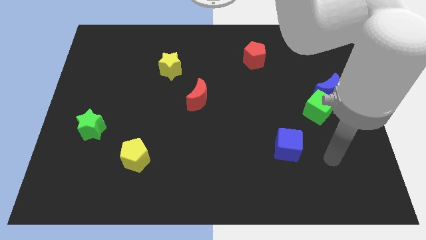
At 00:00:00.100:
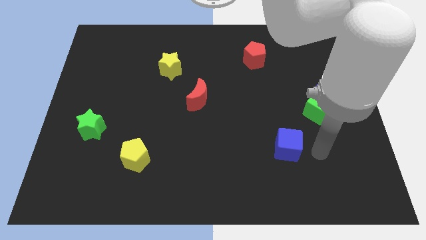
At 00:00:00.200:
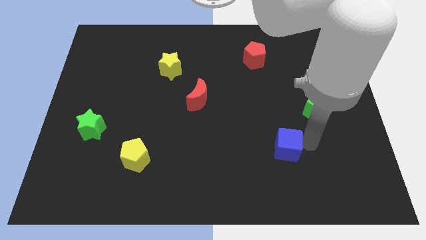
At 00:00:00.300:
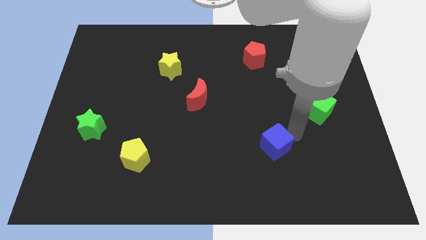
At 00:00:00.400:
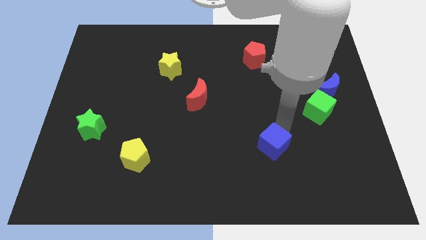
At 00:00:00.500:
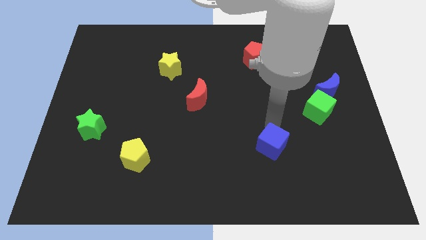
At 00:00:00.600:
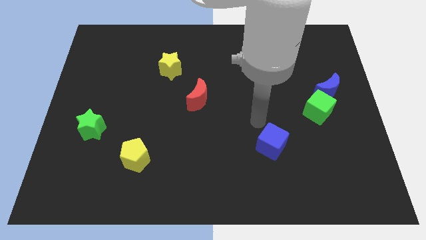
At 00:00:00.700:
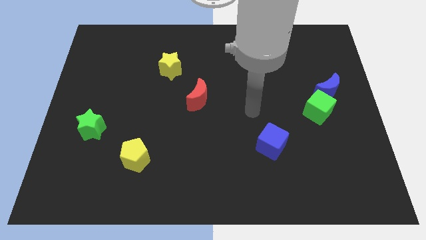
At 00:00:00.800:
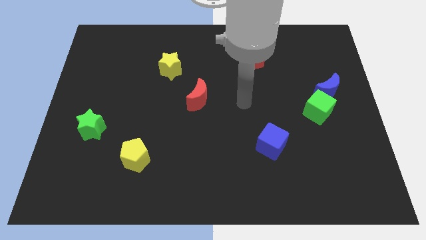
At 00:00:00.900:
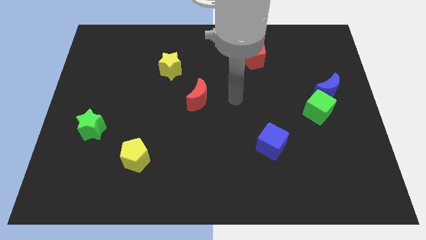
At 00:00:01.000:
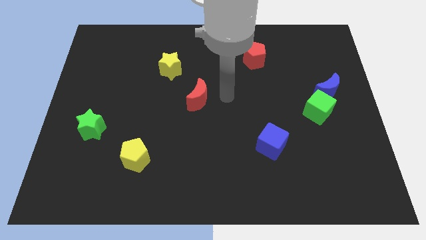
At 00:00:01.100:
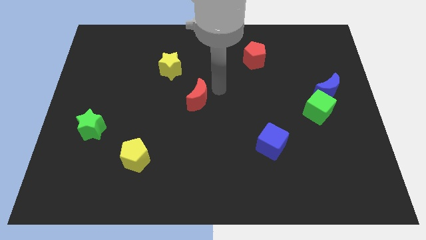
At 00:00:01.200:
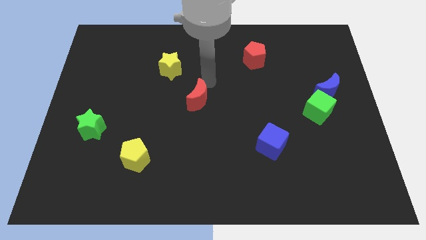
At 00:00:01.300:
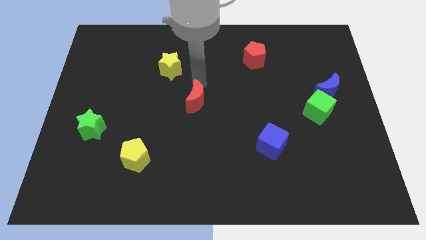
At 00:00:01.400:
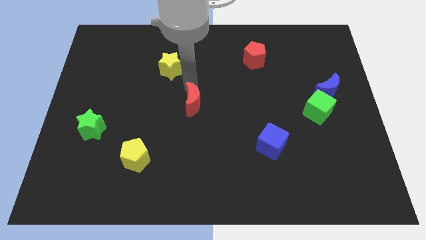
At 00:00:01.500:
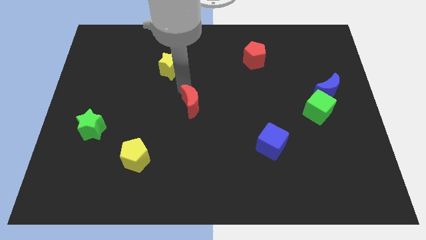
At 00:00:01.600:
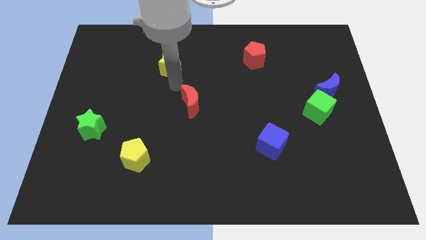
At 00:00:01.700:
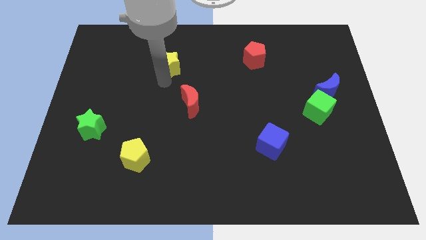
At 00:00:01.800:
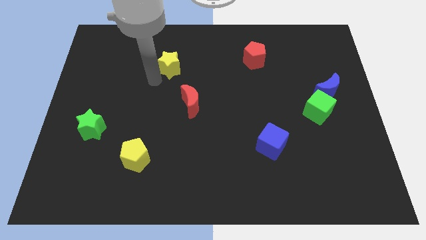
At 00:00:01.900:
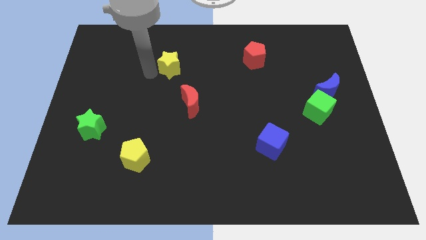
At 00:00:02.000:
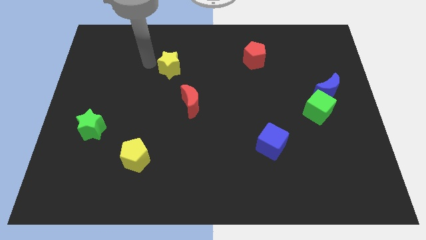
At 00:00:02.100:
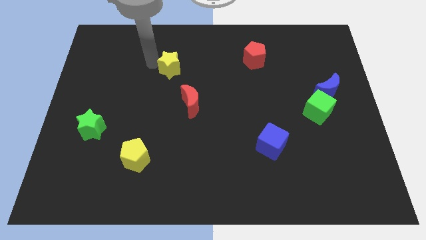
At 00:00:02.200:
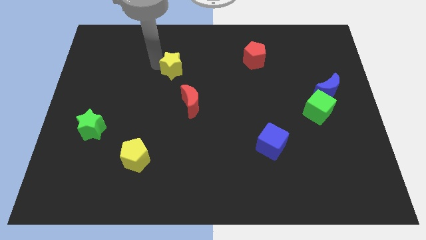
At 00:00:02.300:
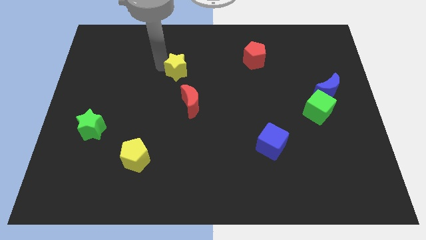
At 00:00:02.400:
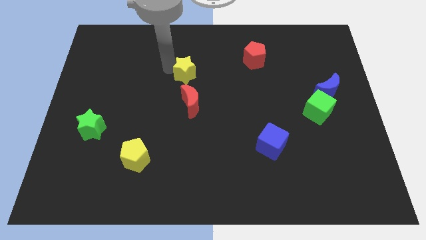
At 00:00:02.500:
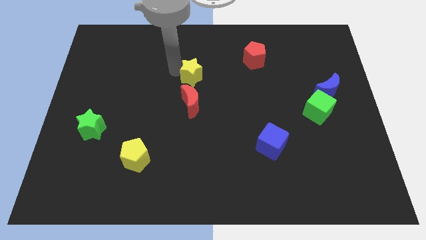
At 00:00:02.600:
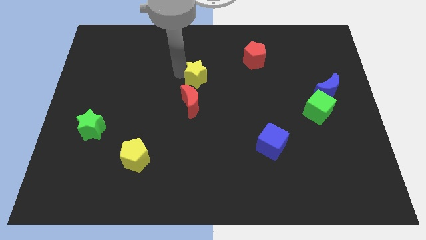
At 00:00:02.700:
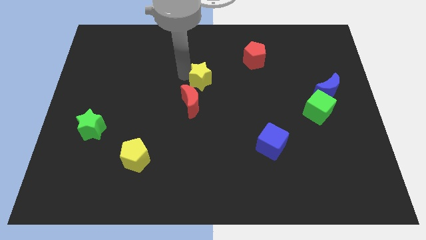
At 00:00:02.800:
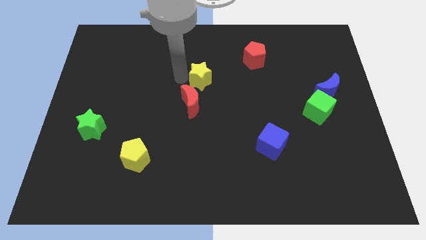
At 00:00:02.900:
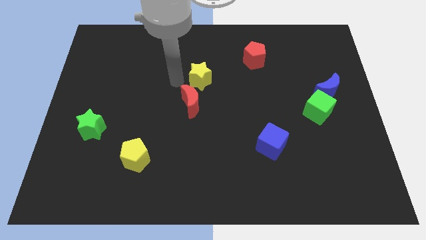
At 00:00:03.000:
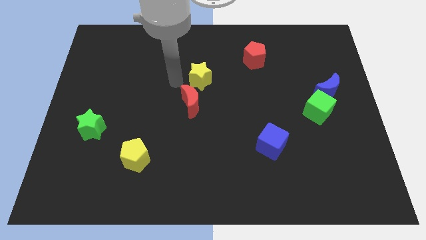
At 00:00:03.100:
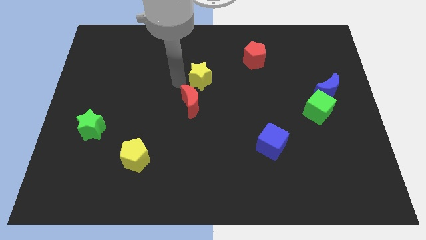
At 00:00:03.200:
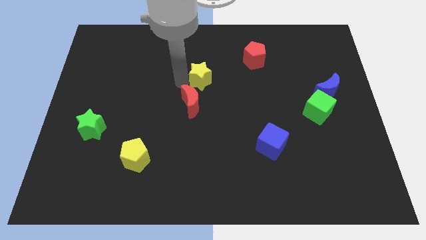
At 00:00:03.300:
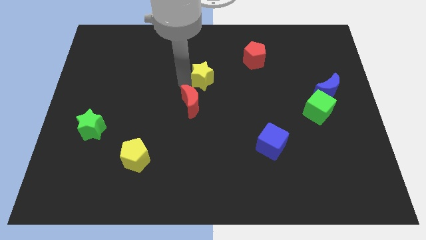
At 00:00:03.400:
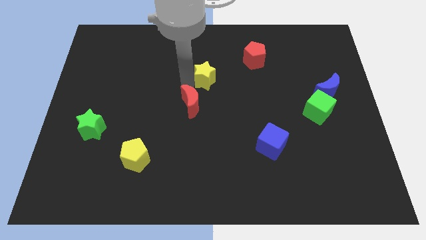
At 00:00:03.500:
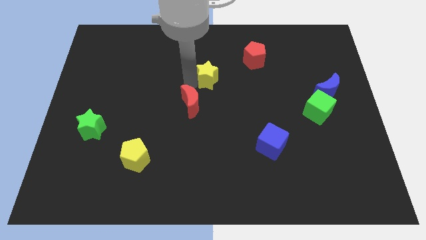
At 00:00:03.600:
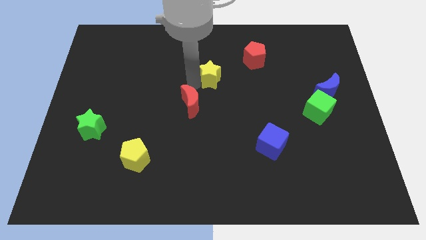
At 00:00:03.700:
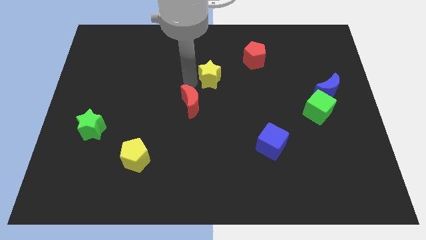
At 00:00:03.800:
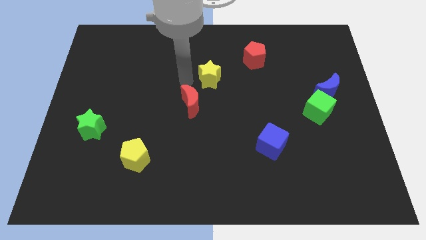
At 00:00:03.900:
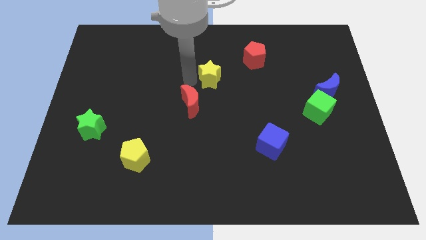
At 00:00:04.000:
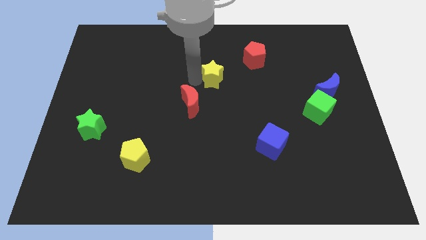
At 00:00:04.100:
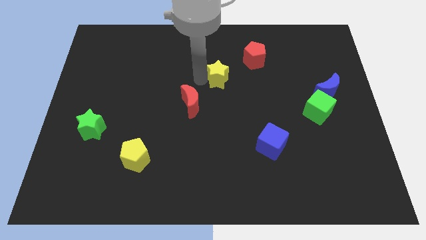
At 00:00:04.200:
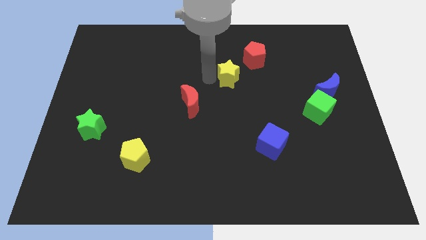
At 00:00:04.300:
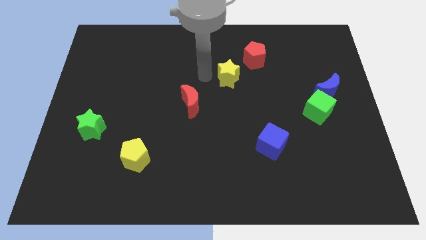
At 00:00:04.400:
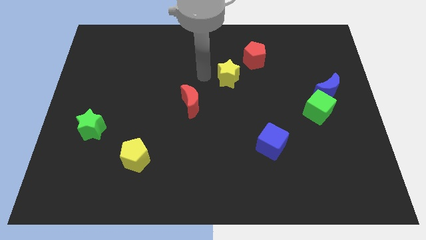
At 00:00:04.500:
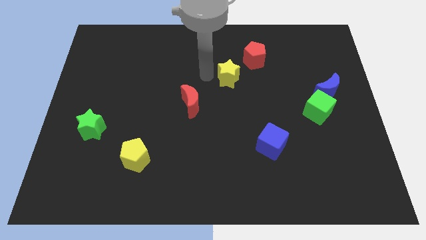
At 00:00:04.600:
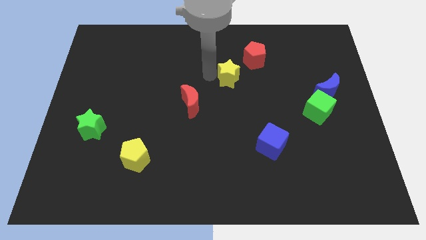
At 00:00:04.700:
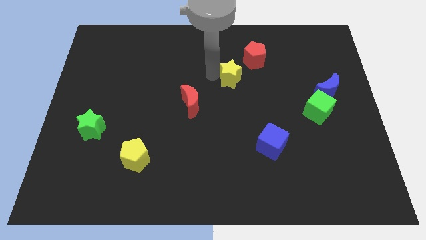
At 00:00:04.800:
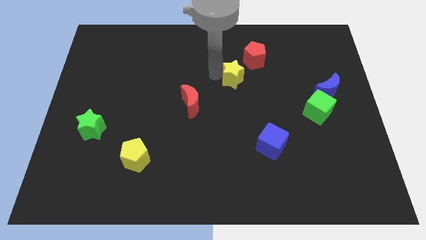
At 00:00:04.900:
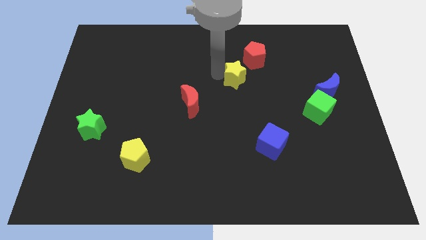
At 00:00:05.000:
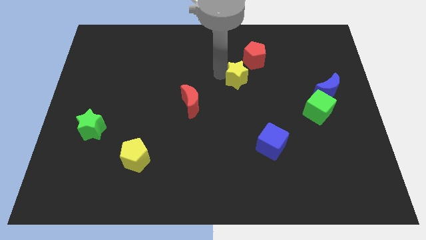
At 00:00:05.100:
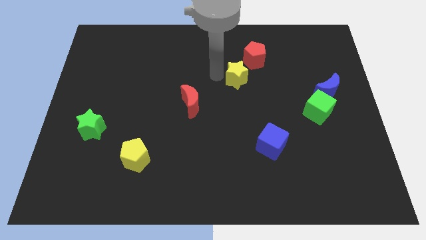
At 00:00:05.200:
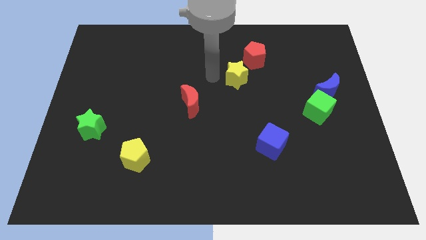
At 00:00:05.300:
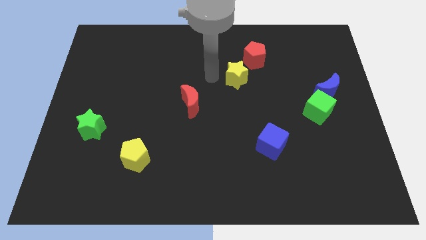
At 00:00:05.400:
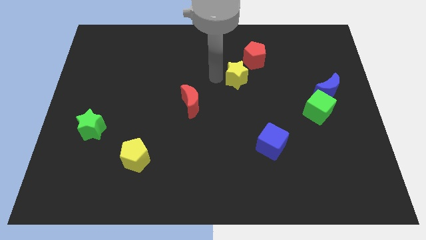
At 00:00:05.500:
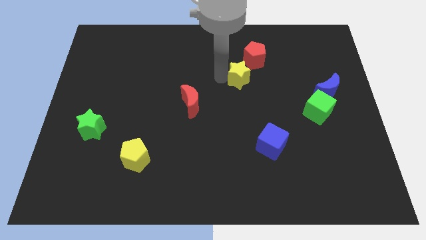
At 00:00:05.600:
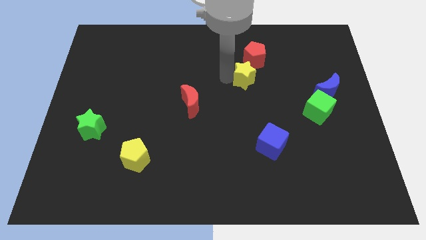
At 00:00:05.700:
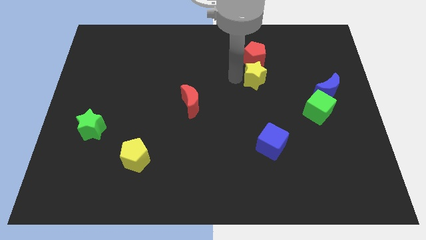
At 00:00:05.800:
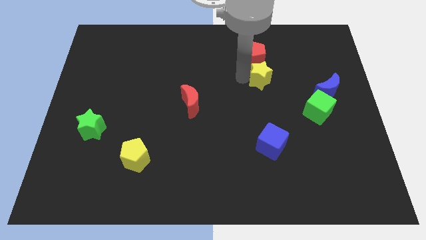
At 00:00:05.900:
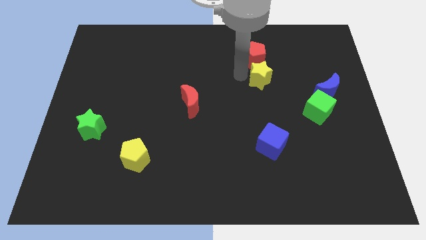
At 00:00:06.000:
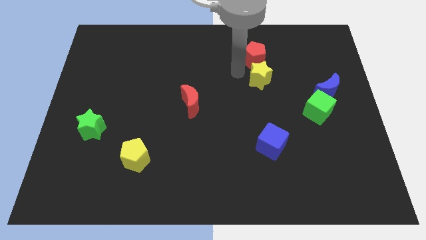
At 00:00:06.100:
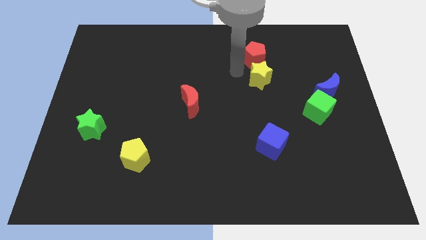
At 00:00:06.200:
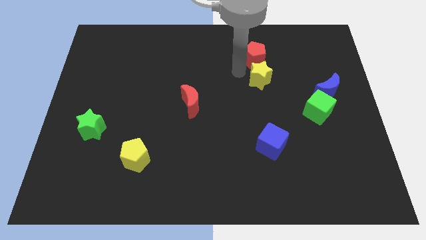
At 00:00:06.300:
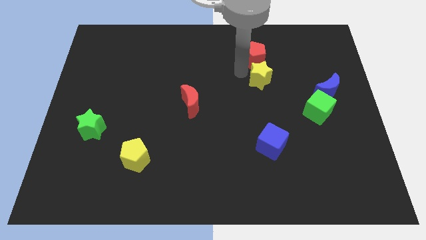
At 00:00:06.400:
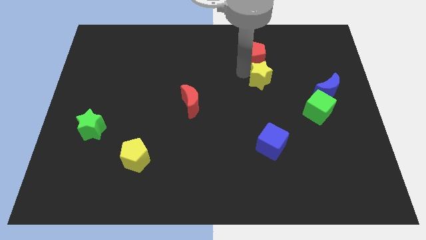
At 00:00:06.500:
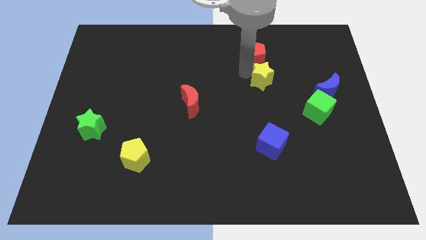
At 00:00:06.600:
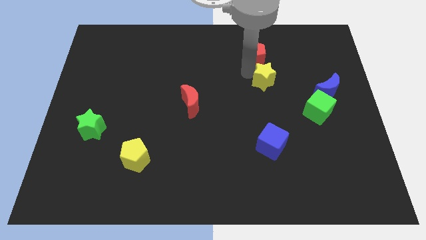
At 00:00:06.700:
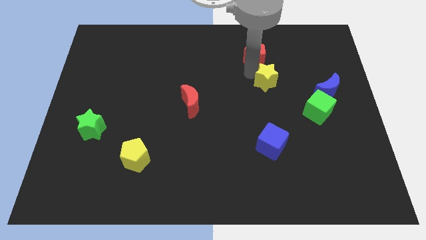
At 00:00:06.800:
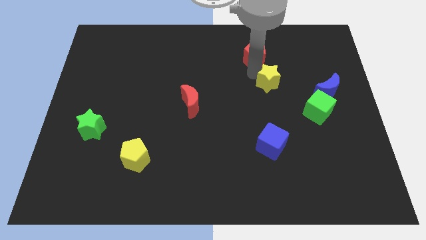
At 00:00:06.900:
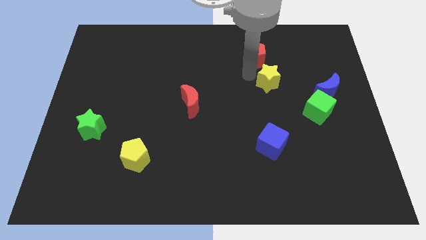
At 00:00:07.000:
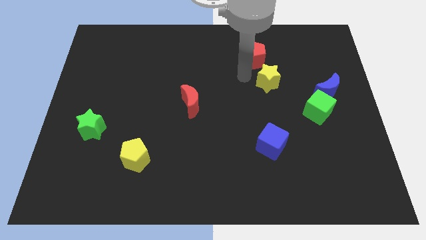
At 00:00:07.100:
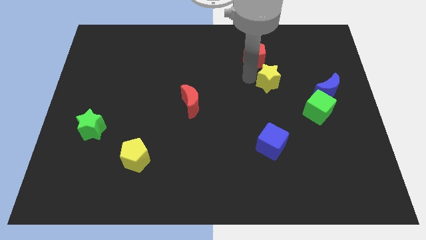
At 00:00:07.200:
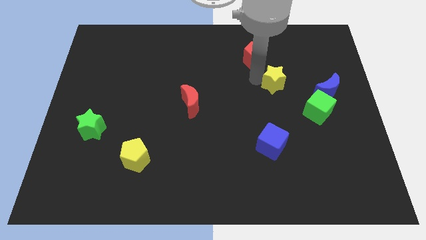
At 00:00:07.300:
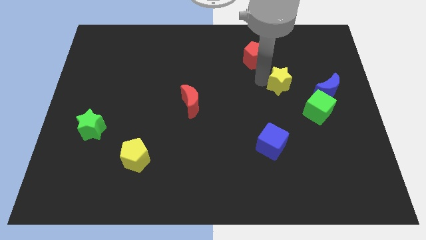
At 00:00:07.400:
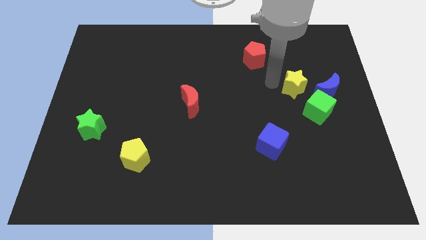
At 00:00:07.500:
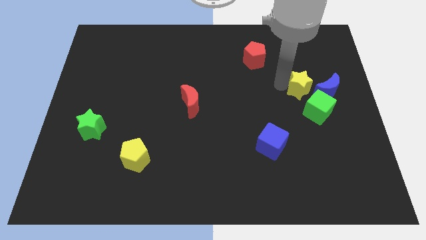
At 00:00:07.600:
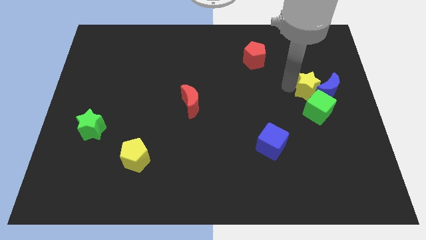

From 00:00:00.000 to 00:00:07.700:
put the yellow star close to the blue moon
